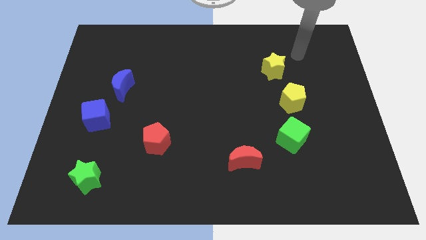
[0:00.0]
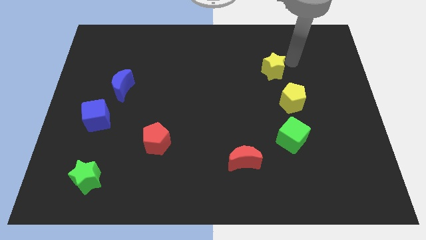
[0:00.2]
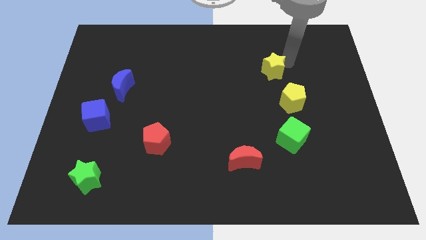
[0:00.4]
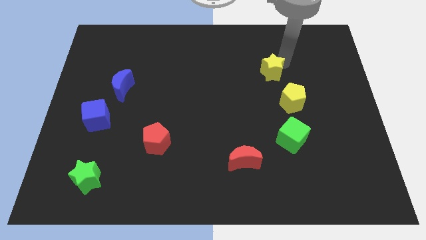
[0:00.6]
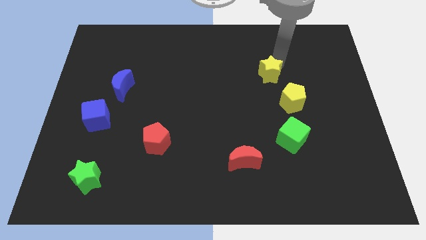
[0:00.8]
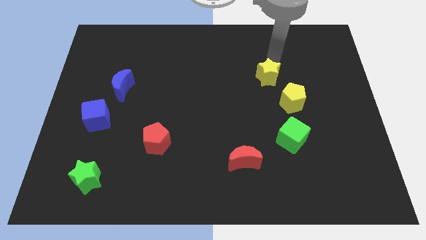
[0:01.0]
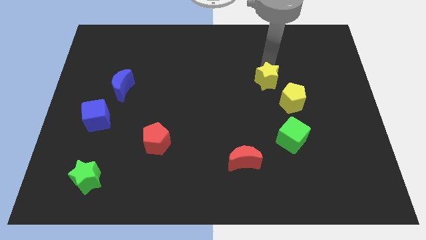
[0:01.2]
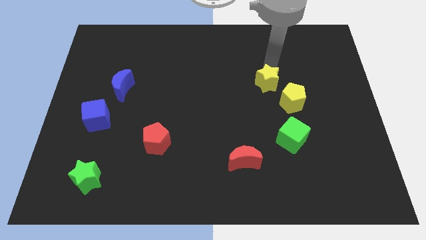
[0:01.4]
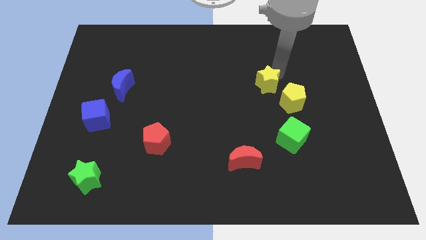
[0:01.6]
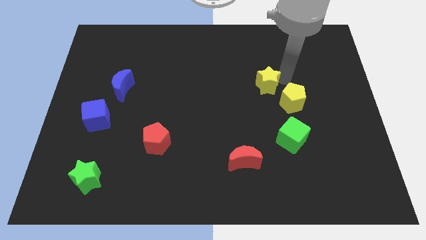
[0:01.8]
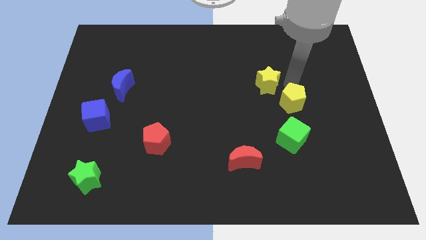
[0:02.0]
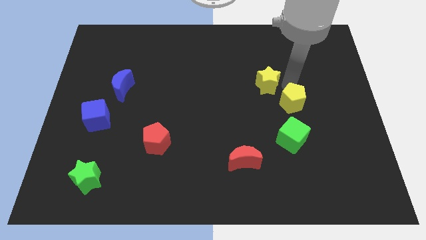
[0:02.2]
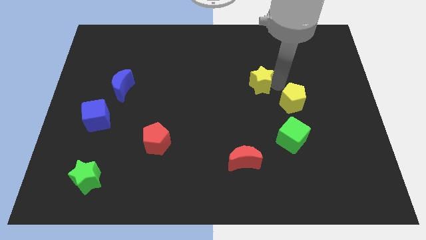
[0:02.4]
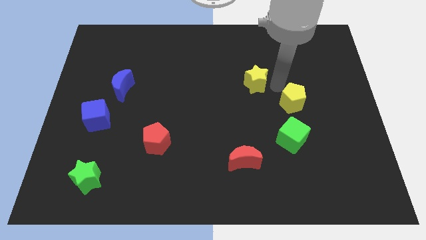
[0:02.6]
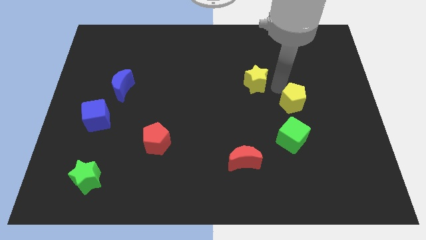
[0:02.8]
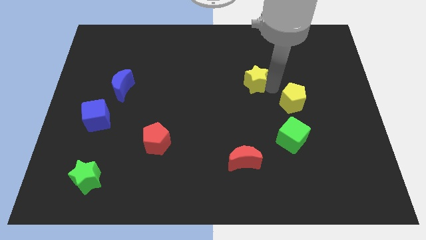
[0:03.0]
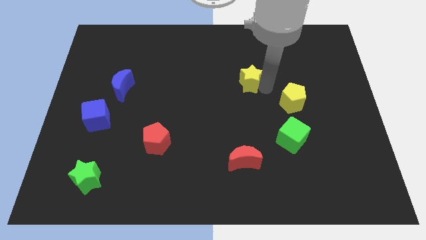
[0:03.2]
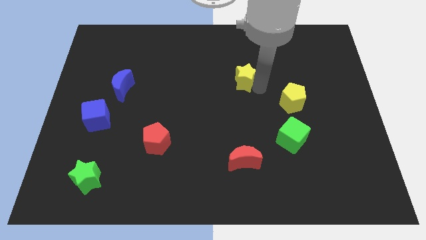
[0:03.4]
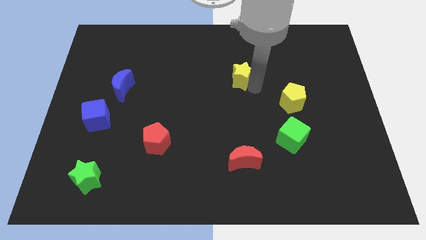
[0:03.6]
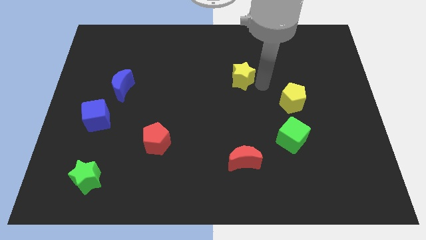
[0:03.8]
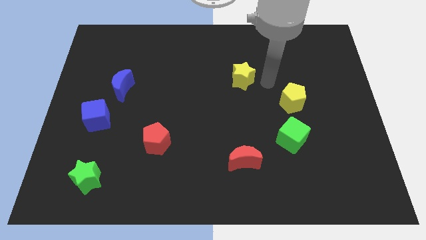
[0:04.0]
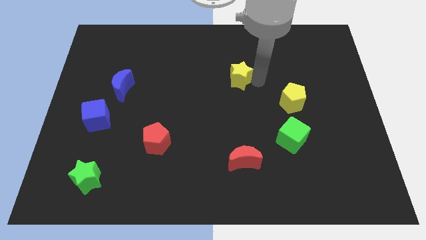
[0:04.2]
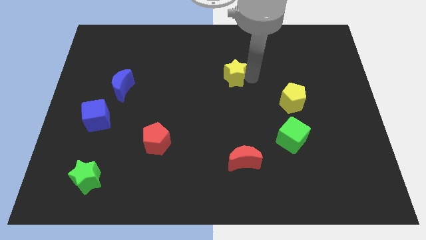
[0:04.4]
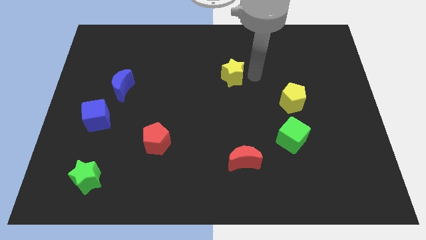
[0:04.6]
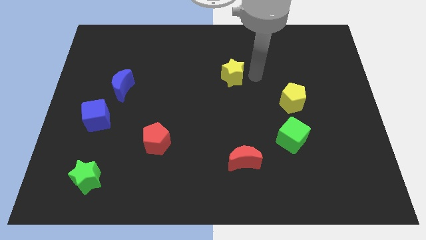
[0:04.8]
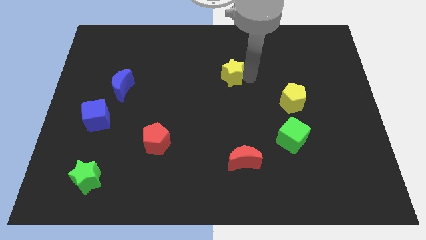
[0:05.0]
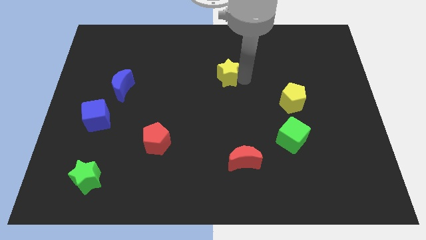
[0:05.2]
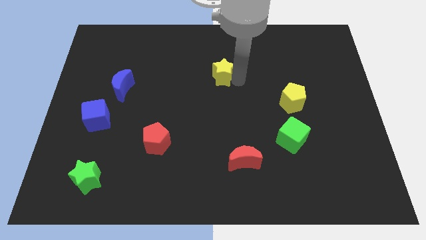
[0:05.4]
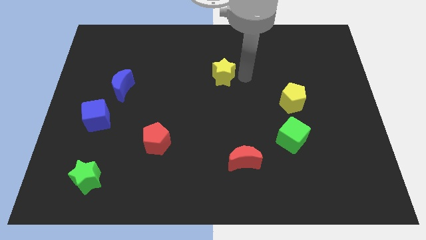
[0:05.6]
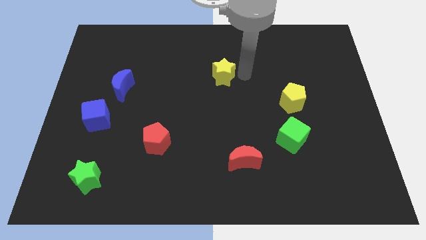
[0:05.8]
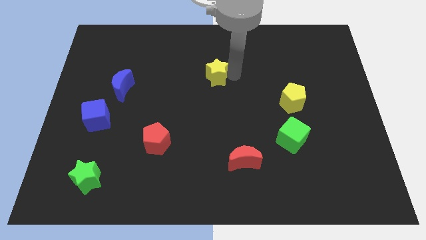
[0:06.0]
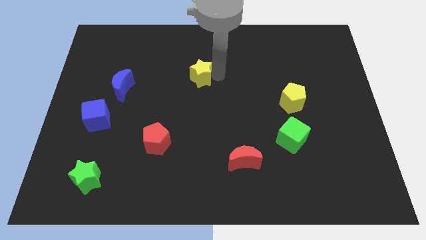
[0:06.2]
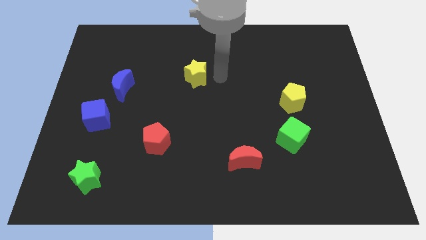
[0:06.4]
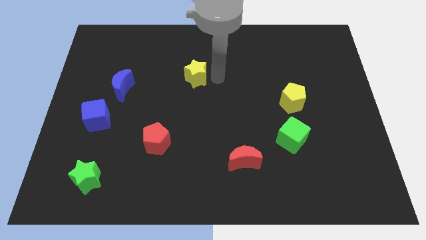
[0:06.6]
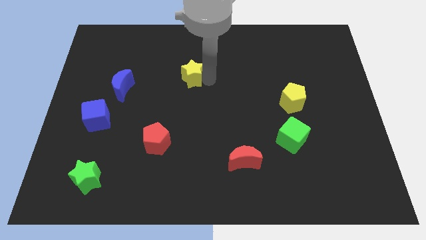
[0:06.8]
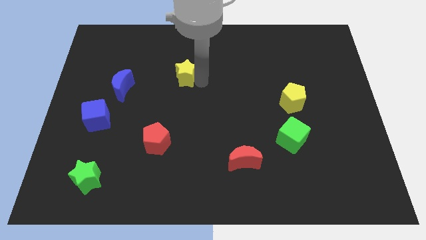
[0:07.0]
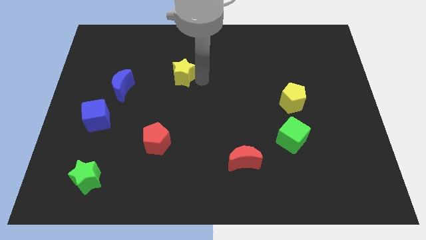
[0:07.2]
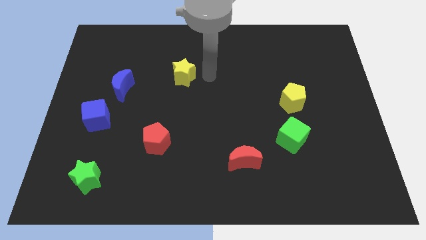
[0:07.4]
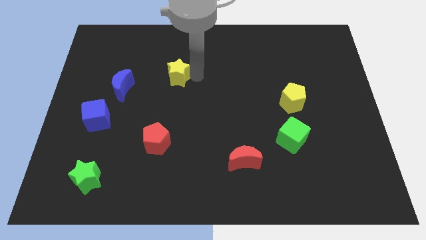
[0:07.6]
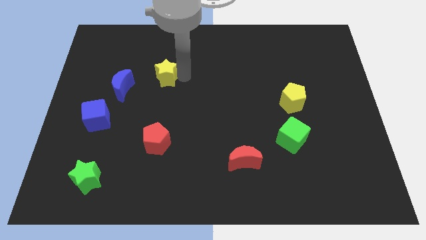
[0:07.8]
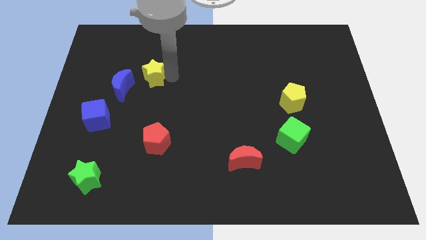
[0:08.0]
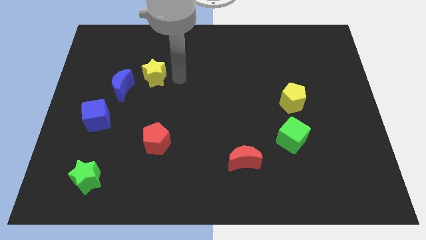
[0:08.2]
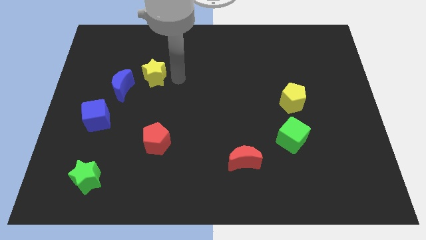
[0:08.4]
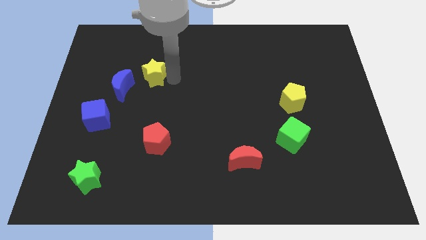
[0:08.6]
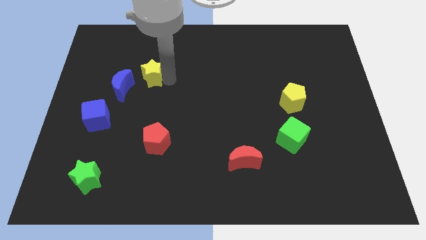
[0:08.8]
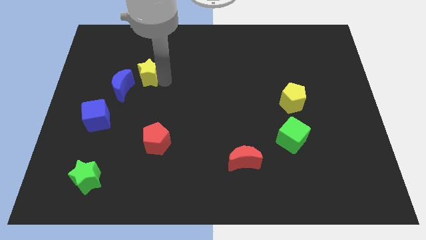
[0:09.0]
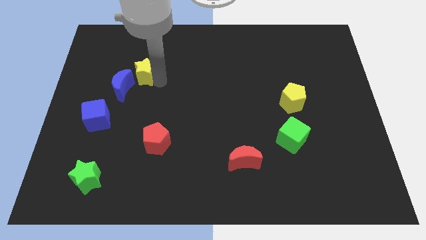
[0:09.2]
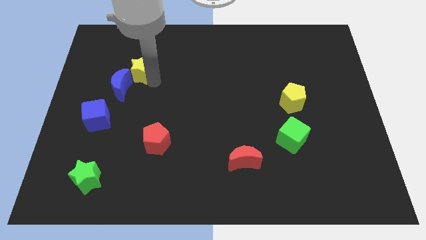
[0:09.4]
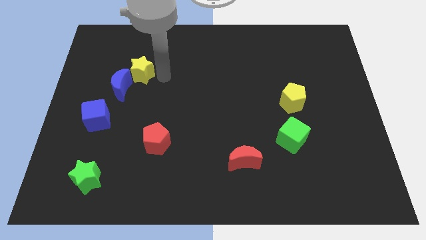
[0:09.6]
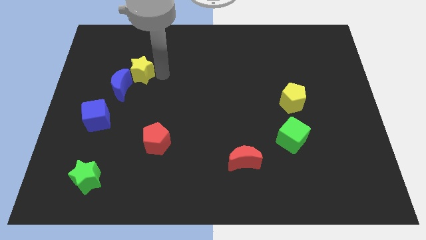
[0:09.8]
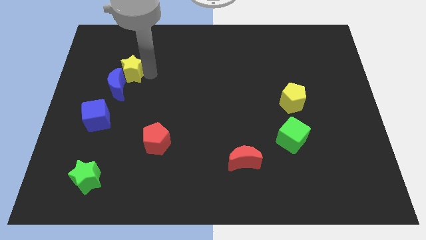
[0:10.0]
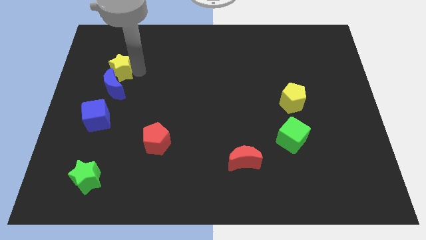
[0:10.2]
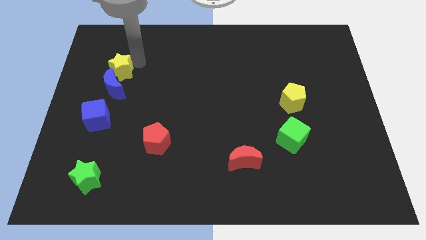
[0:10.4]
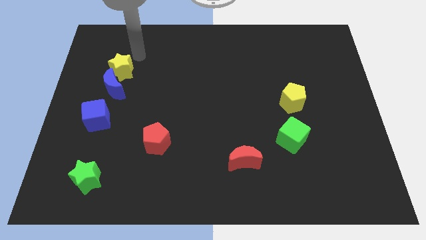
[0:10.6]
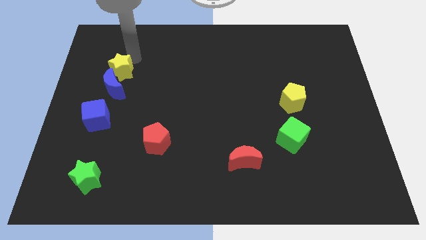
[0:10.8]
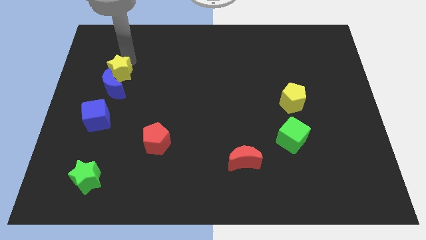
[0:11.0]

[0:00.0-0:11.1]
move the yellow star to the top side of the blue cube

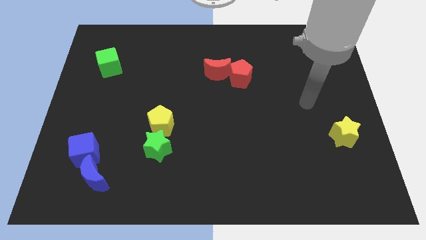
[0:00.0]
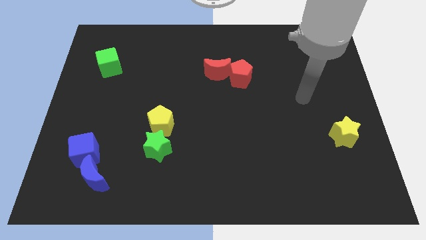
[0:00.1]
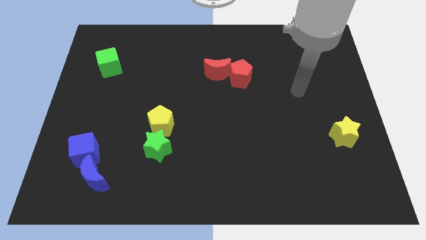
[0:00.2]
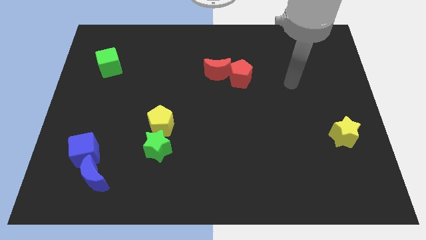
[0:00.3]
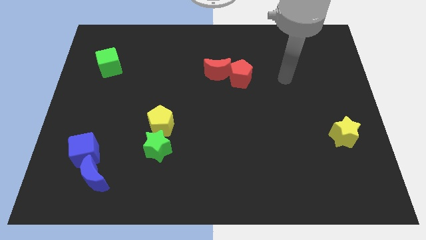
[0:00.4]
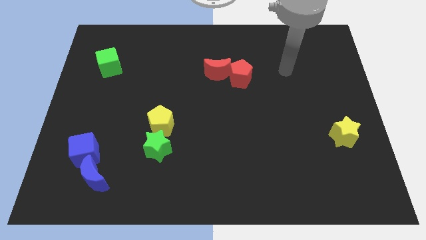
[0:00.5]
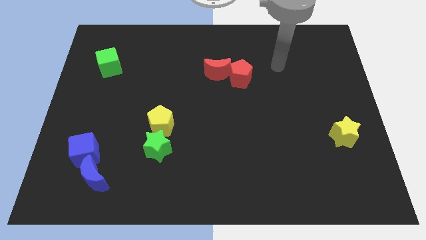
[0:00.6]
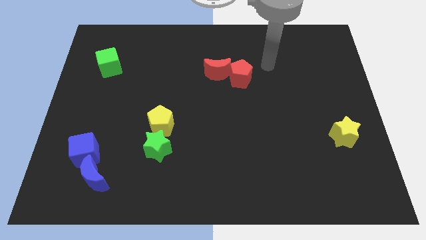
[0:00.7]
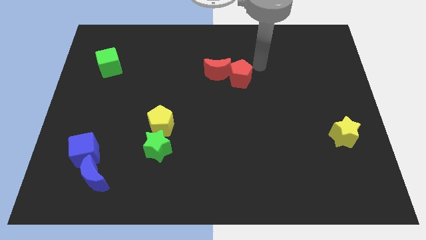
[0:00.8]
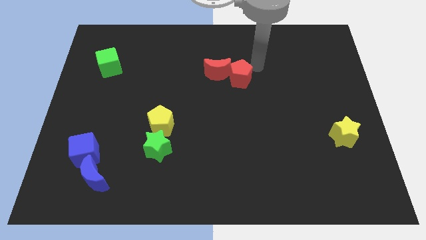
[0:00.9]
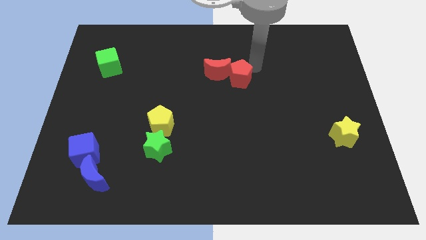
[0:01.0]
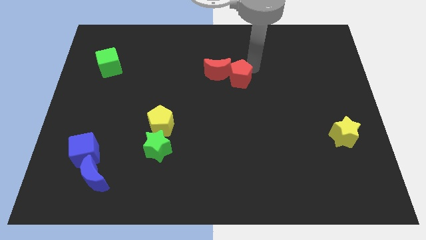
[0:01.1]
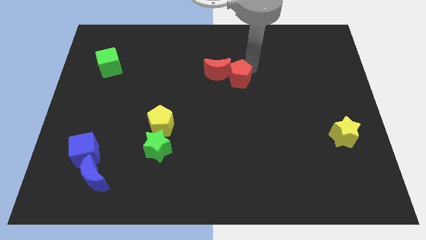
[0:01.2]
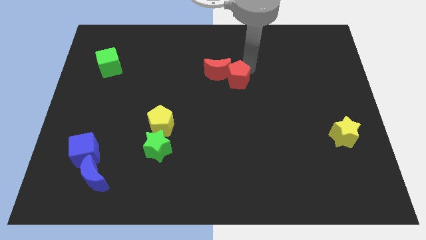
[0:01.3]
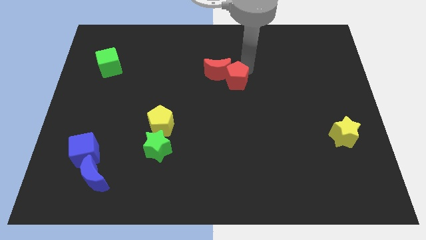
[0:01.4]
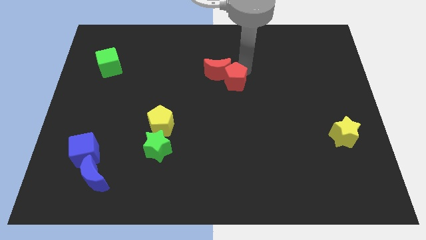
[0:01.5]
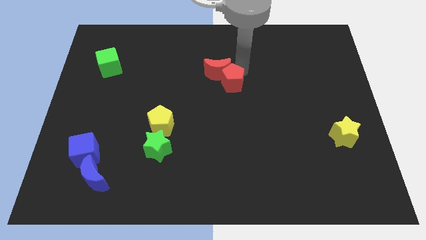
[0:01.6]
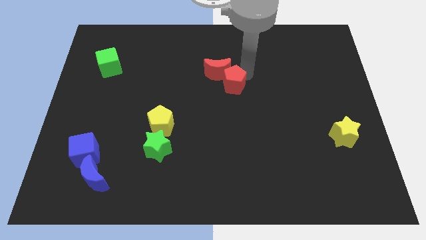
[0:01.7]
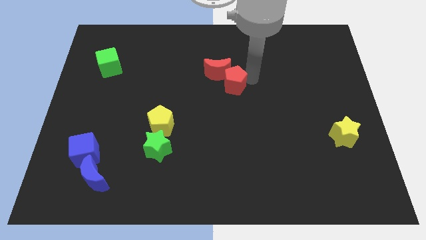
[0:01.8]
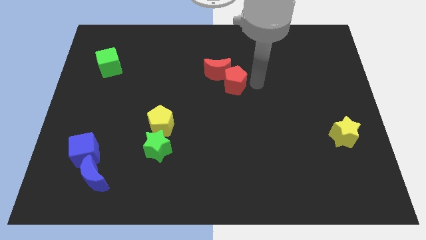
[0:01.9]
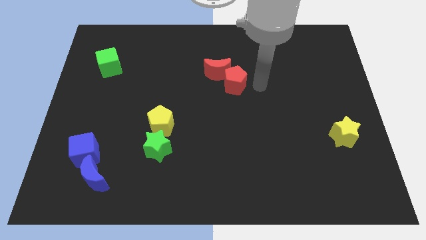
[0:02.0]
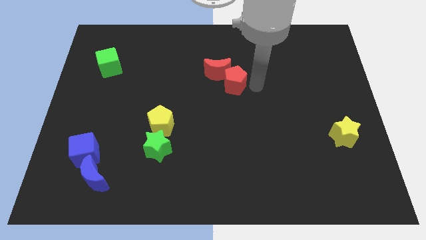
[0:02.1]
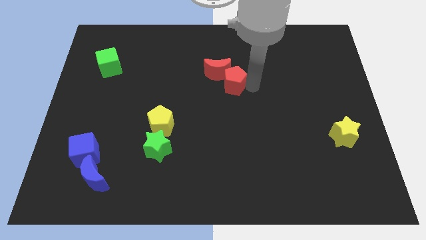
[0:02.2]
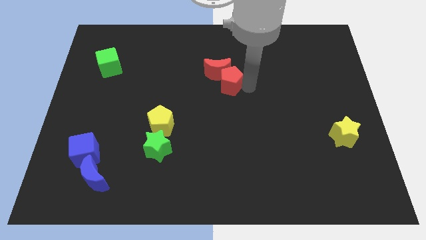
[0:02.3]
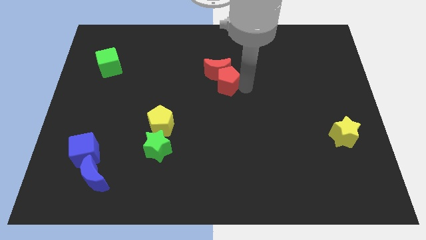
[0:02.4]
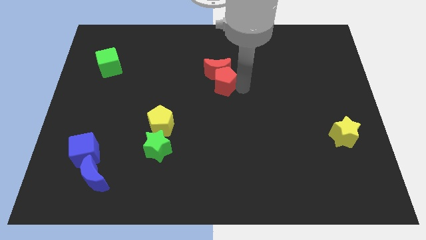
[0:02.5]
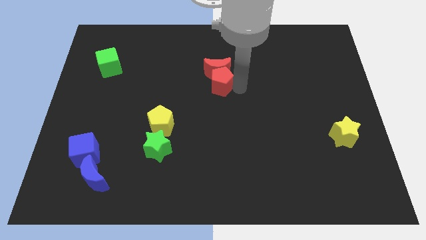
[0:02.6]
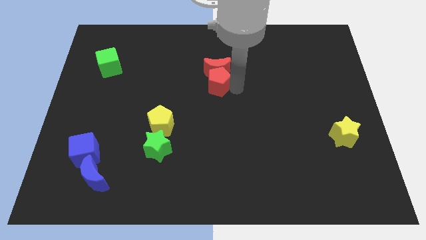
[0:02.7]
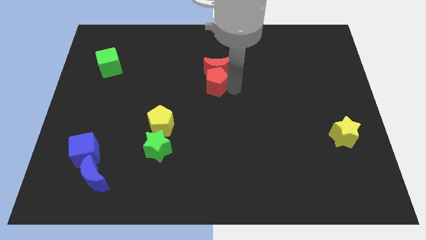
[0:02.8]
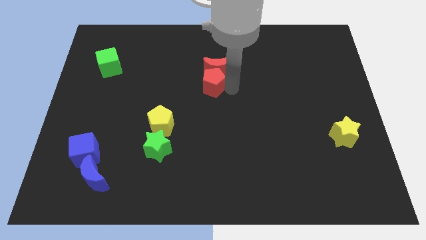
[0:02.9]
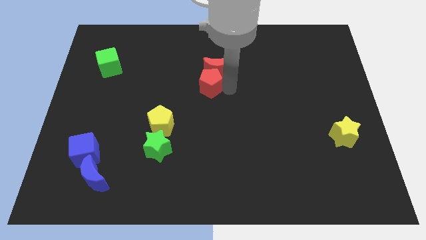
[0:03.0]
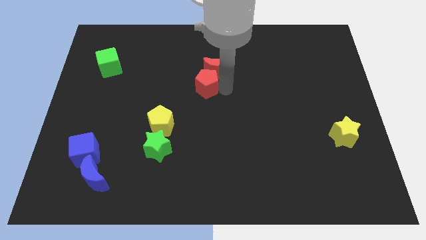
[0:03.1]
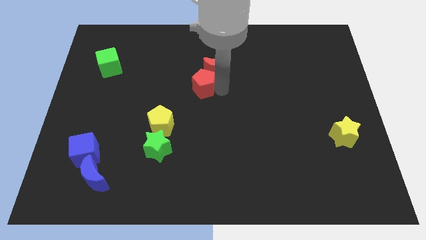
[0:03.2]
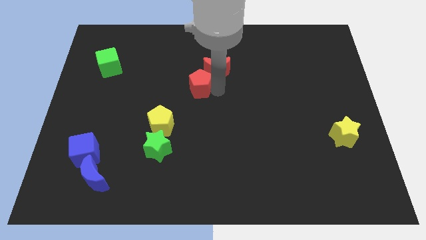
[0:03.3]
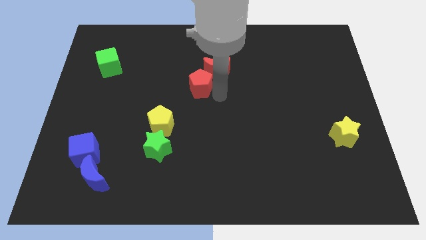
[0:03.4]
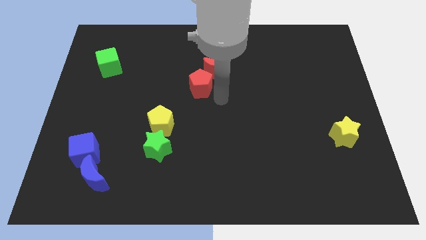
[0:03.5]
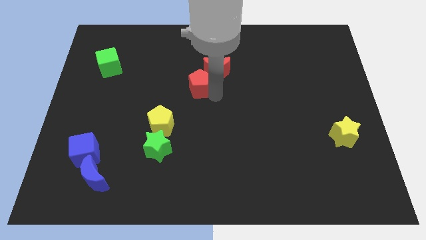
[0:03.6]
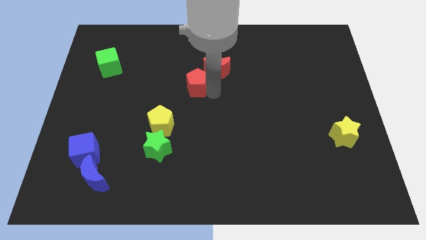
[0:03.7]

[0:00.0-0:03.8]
move the red pentagon to the left side of the red moon
